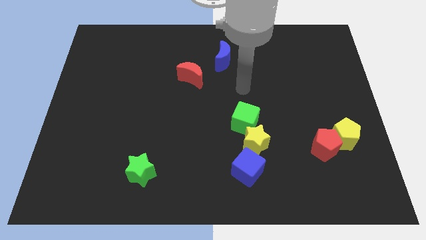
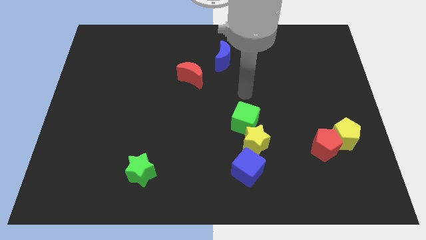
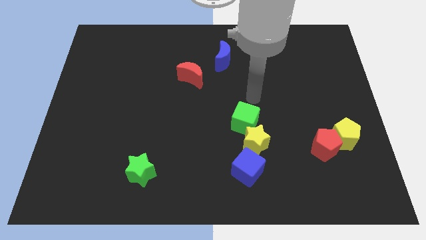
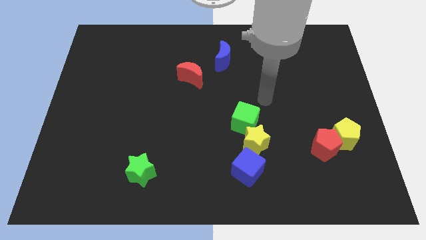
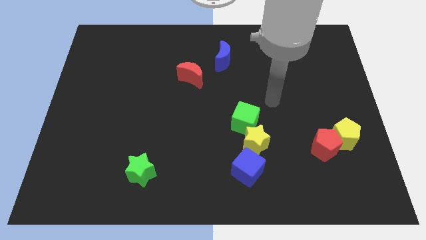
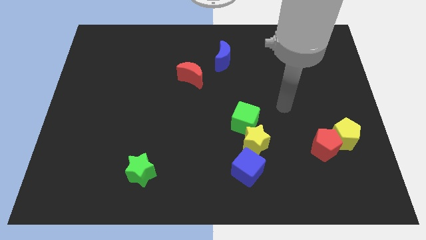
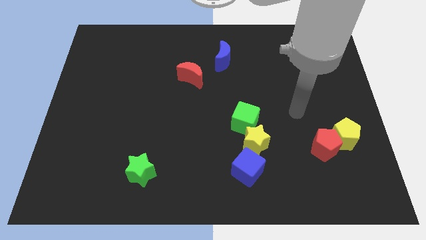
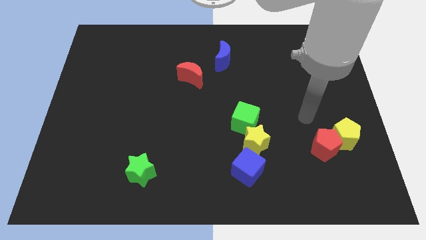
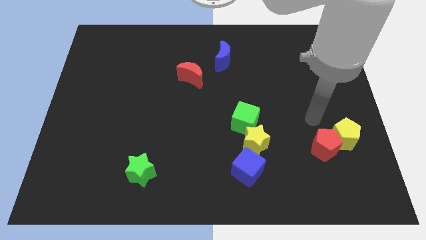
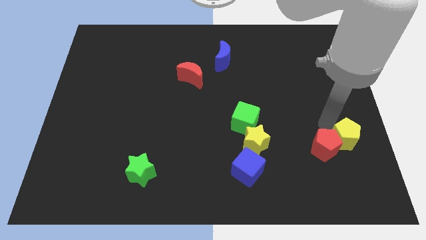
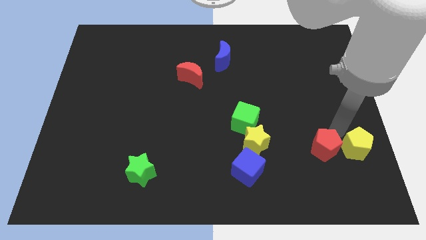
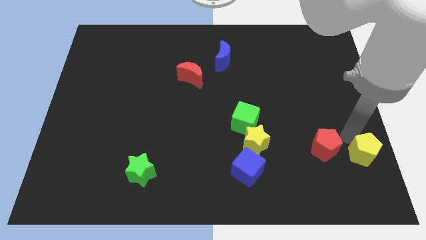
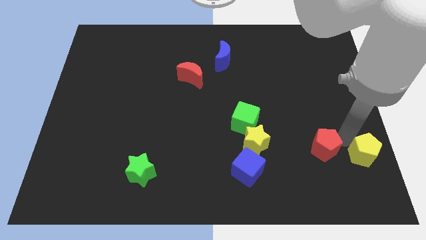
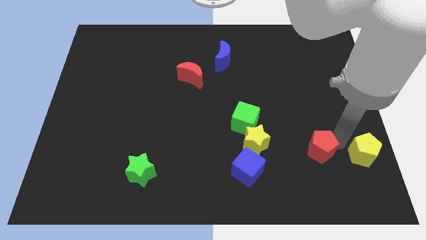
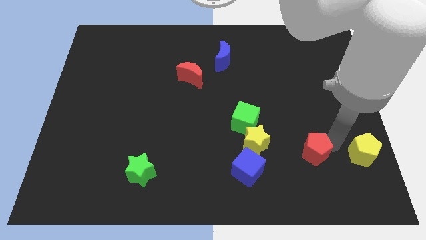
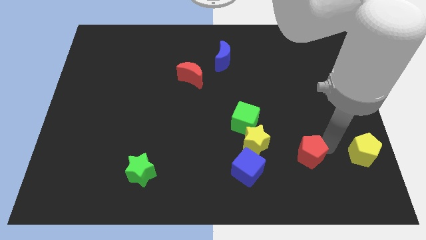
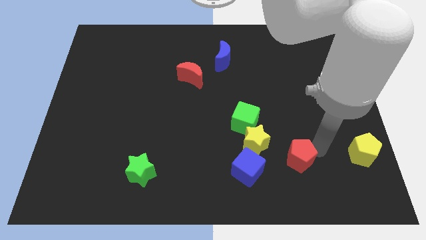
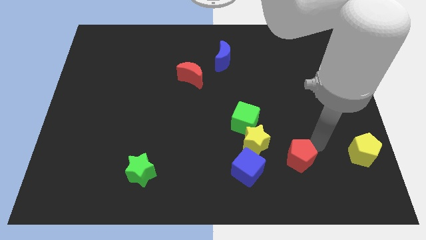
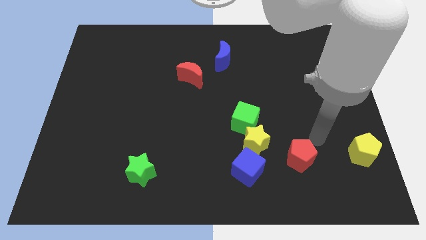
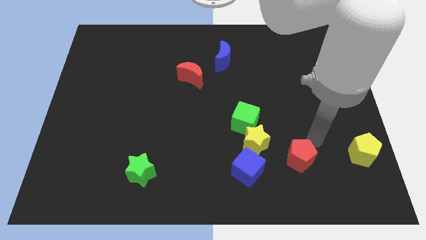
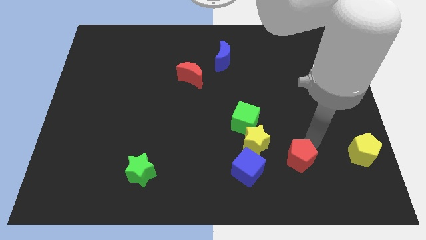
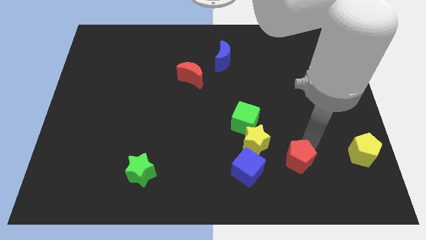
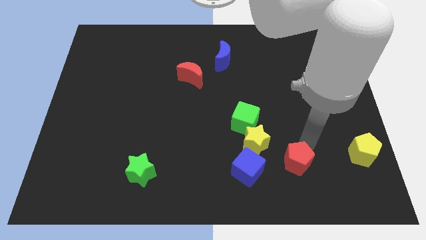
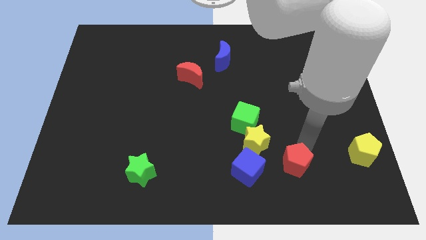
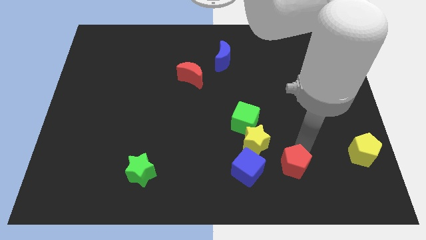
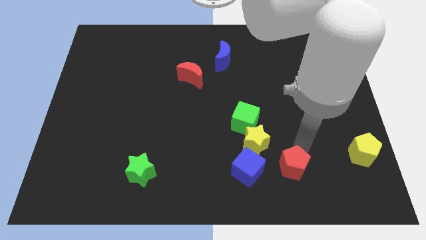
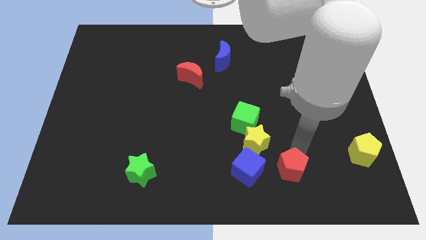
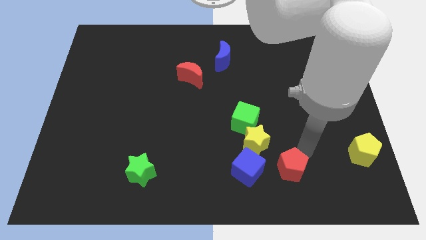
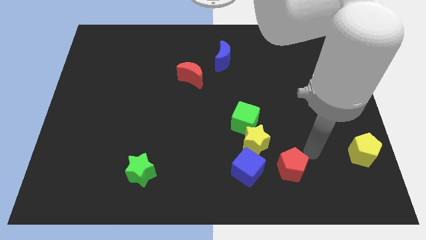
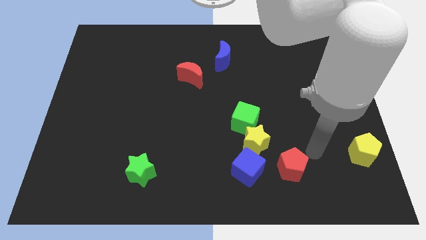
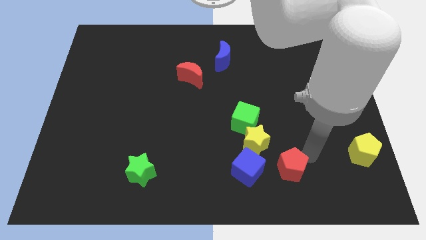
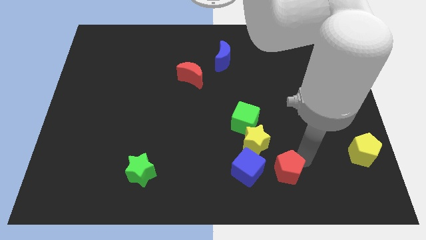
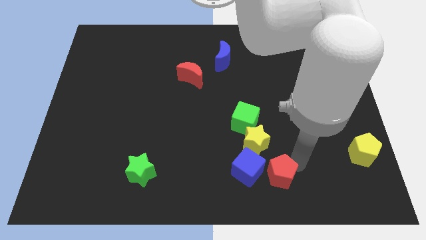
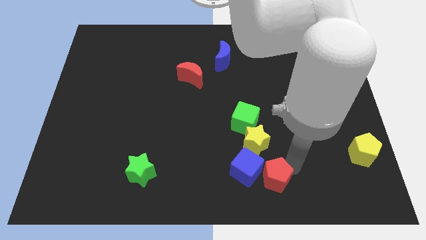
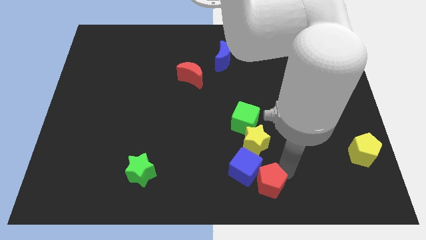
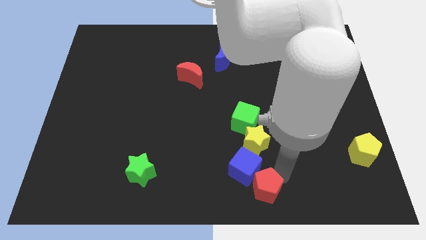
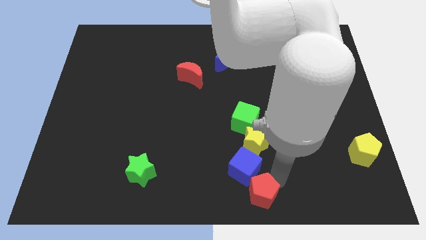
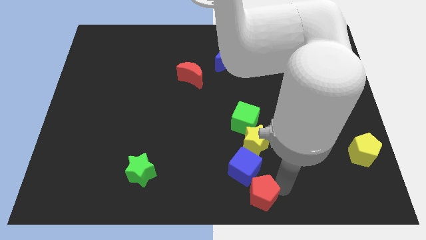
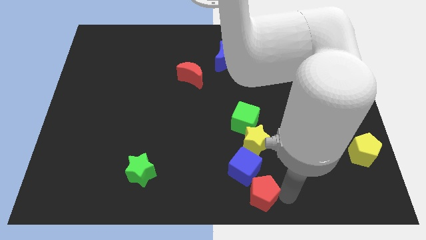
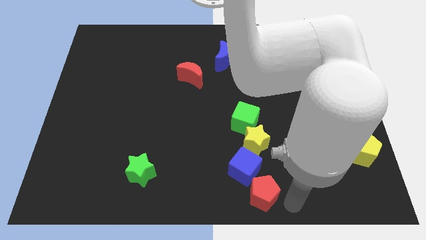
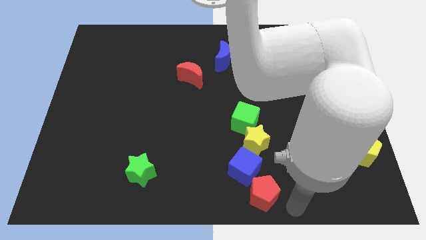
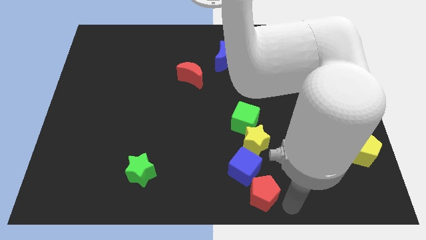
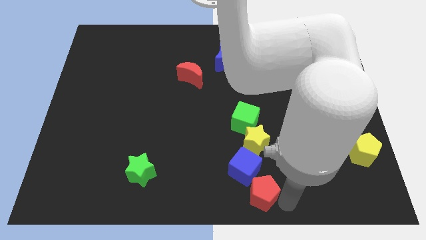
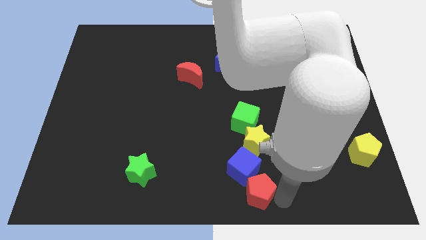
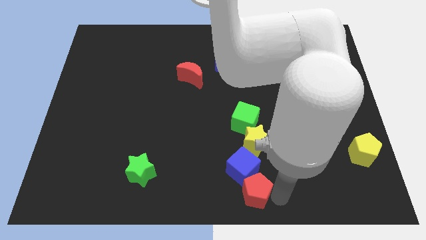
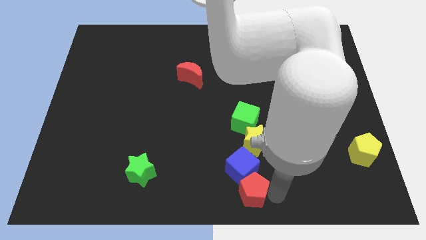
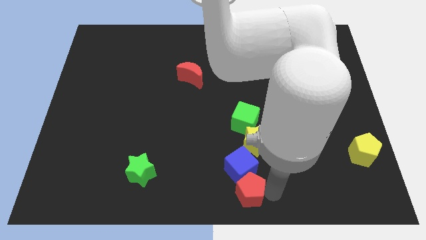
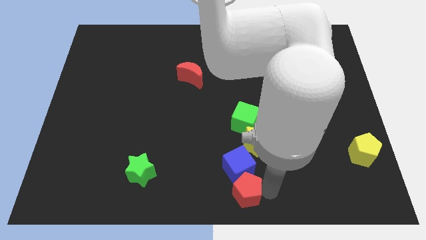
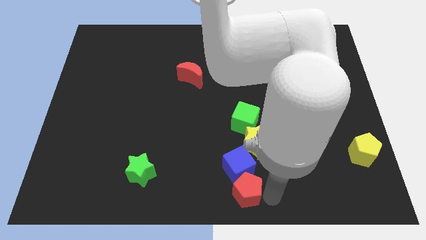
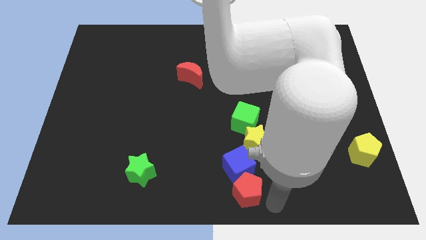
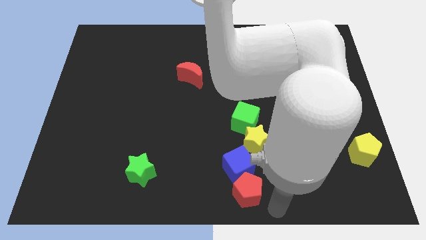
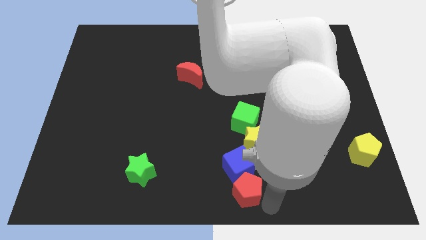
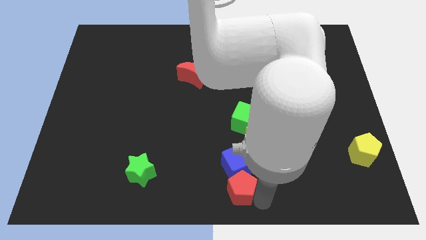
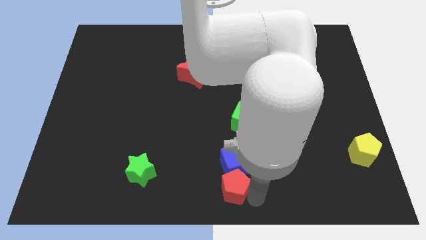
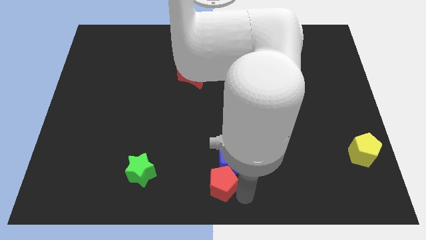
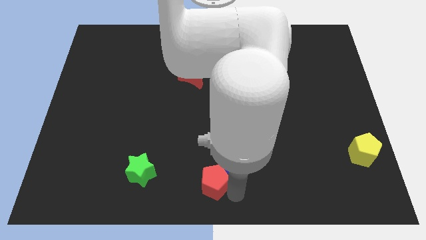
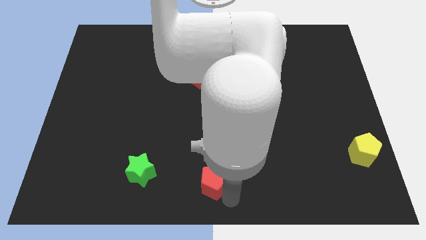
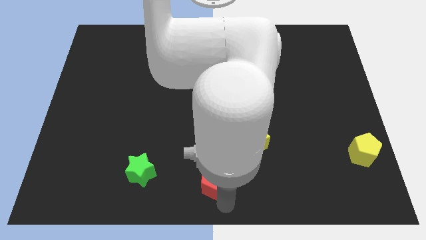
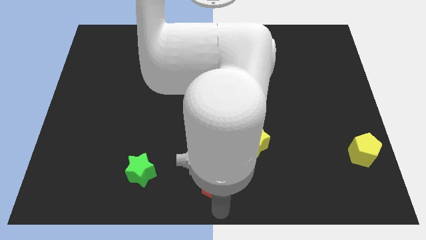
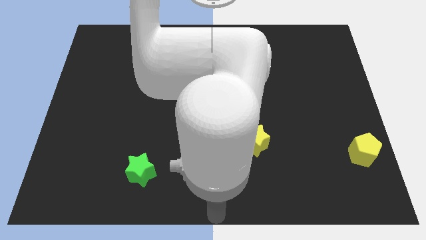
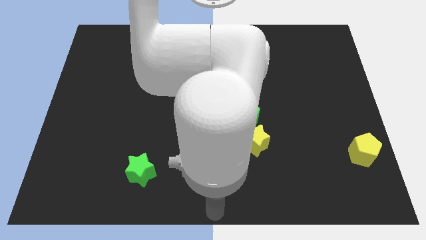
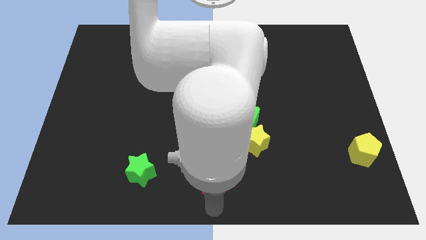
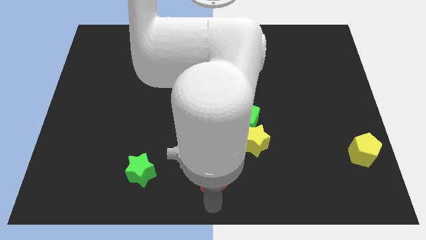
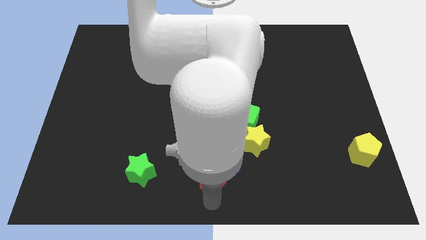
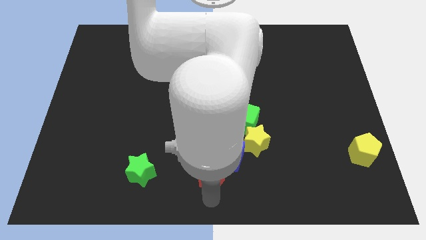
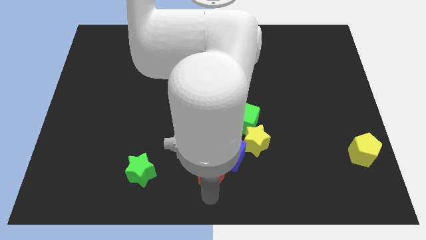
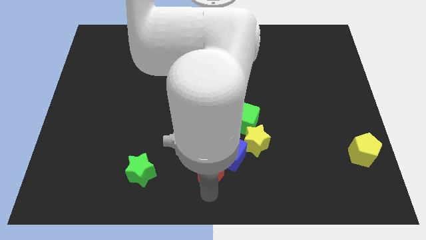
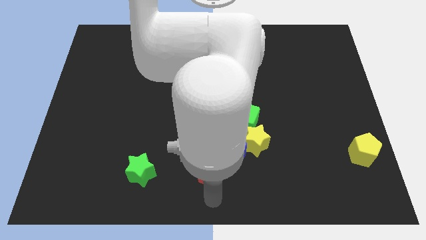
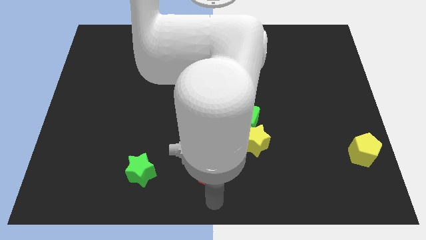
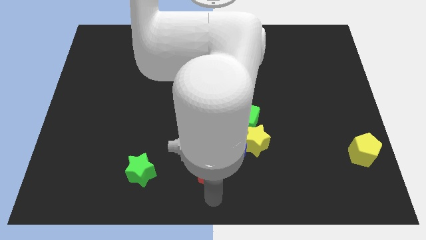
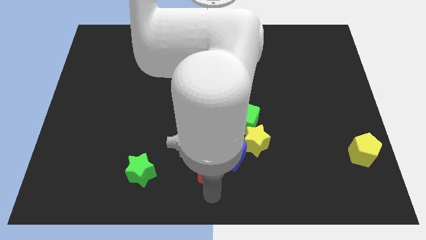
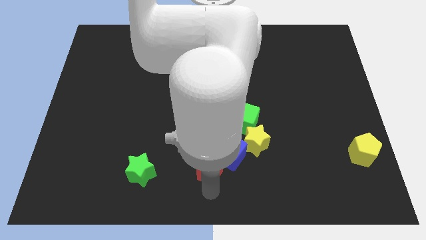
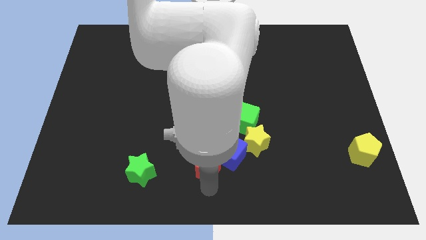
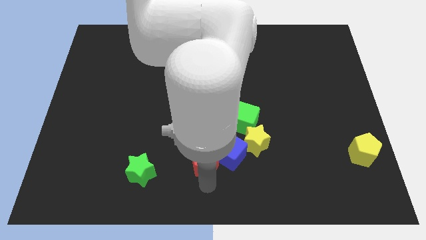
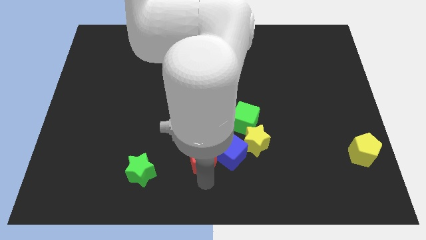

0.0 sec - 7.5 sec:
move the red pentagon just left of the yellow star
